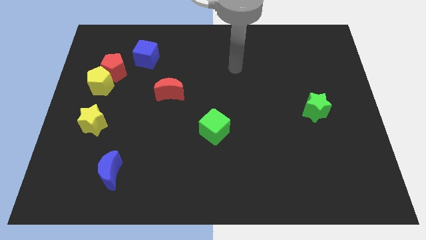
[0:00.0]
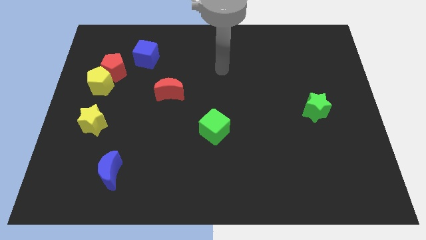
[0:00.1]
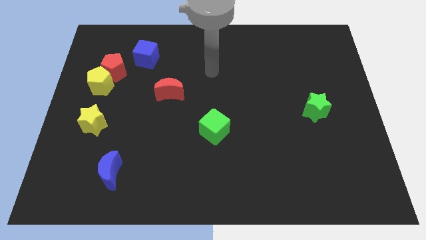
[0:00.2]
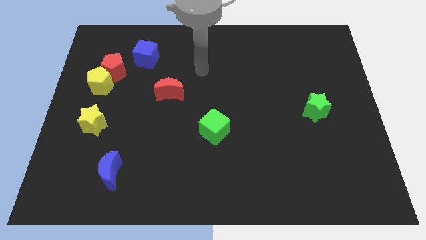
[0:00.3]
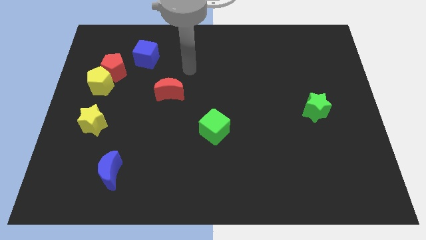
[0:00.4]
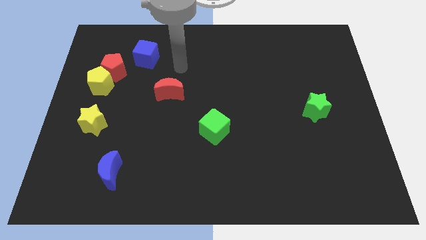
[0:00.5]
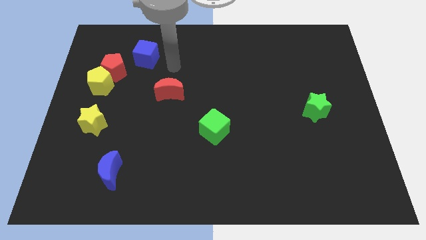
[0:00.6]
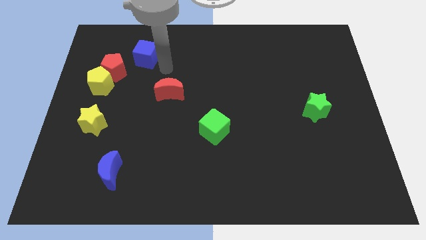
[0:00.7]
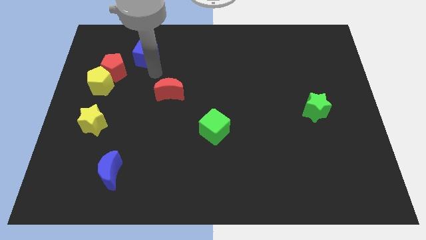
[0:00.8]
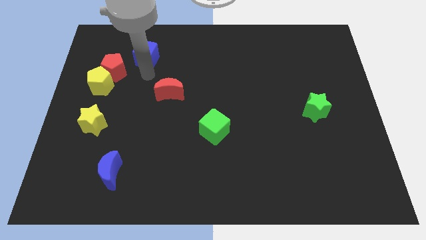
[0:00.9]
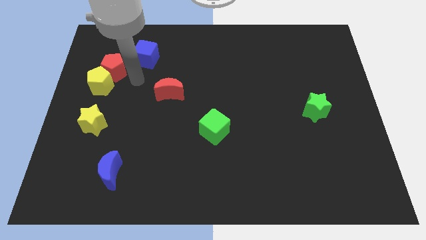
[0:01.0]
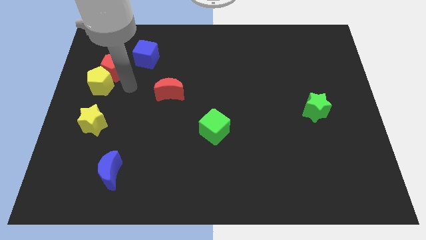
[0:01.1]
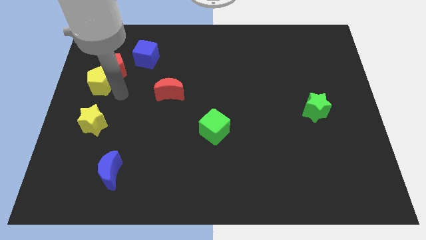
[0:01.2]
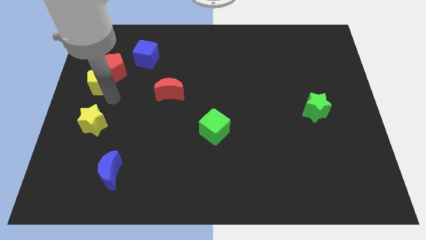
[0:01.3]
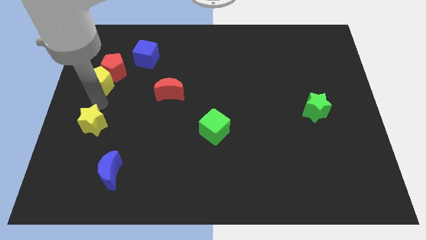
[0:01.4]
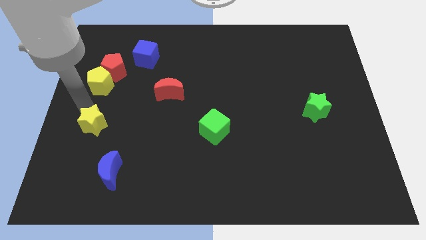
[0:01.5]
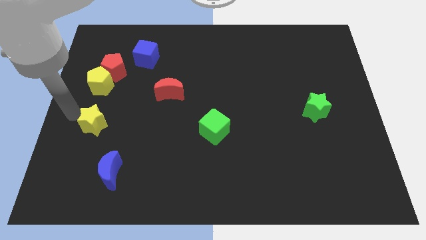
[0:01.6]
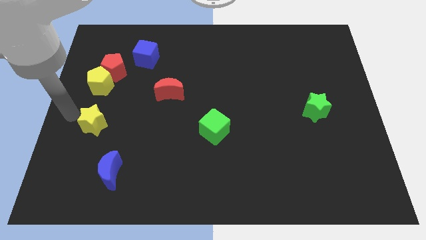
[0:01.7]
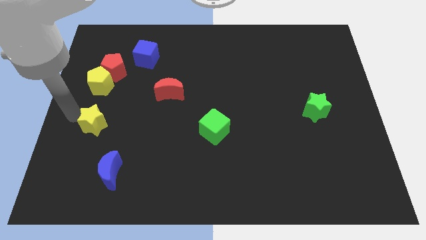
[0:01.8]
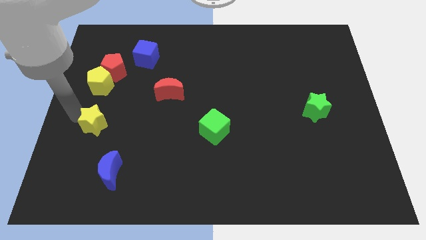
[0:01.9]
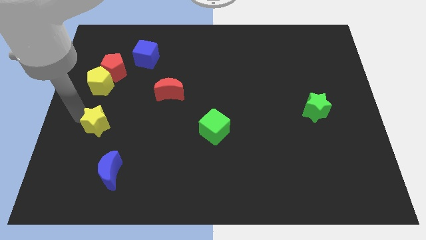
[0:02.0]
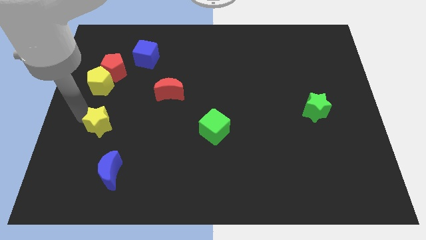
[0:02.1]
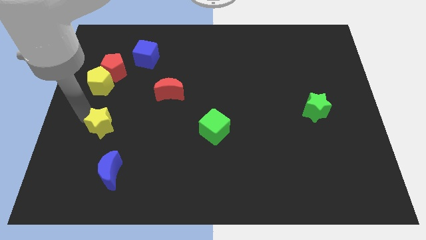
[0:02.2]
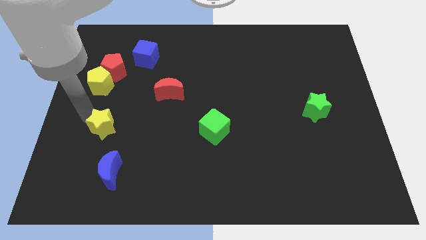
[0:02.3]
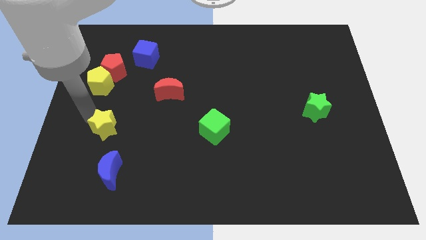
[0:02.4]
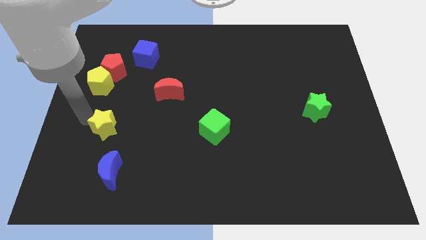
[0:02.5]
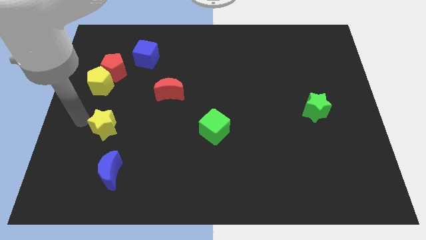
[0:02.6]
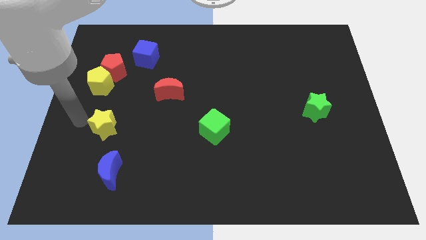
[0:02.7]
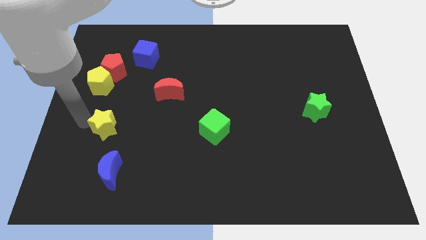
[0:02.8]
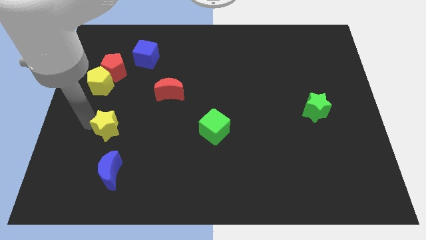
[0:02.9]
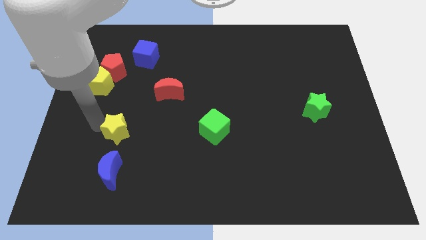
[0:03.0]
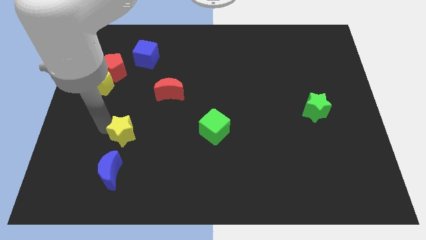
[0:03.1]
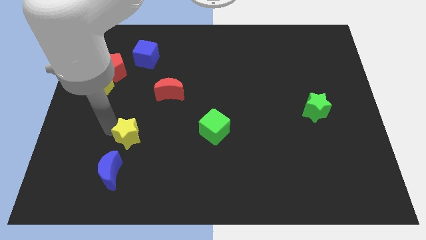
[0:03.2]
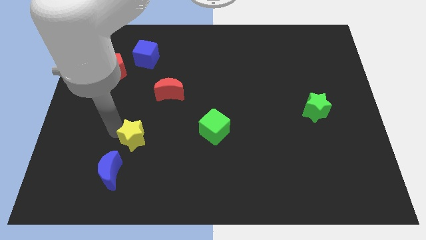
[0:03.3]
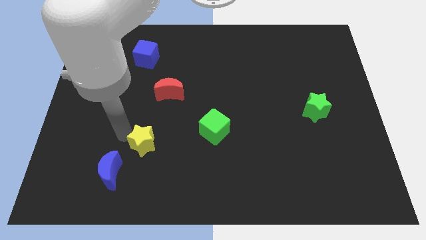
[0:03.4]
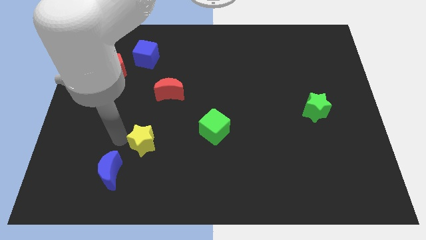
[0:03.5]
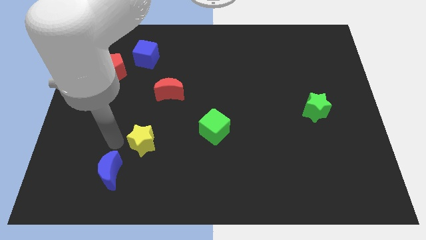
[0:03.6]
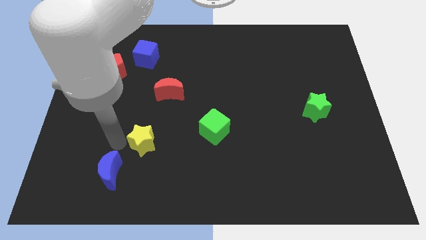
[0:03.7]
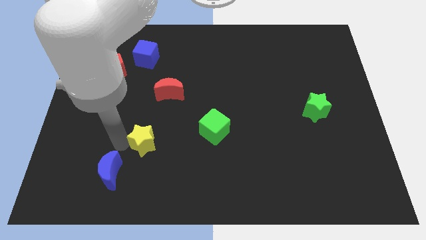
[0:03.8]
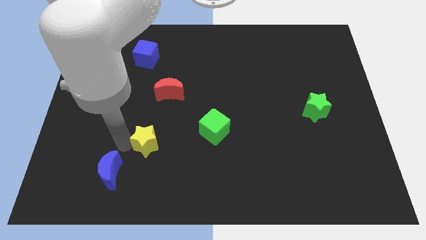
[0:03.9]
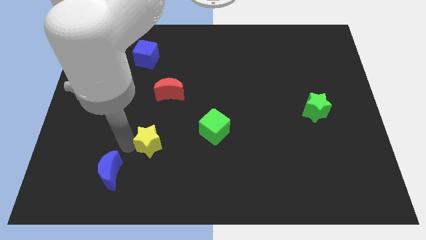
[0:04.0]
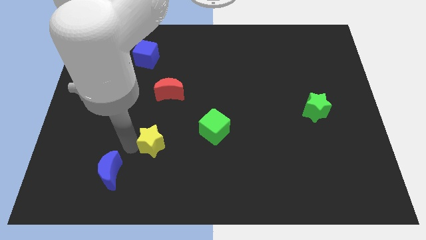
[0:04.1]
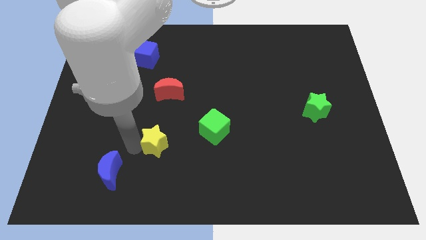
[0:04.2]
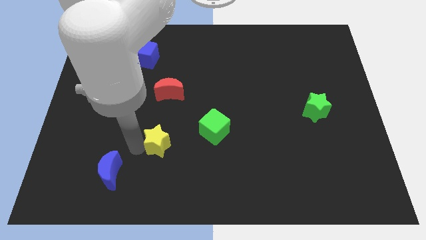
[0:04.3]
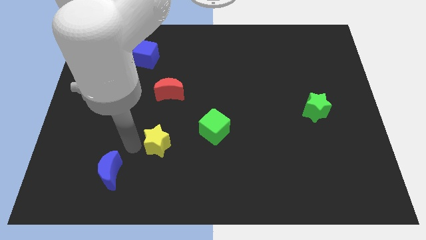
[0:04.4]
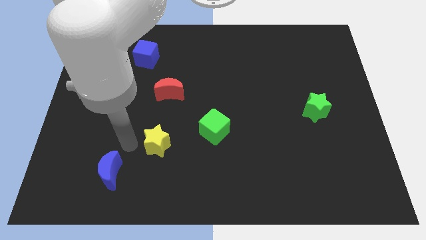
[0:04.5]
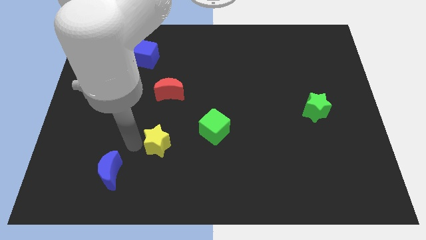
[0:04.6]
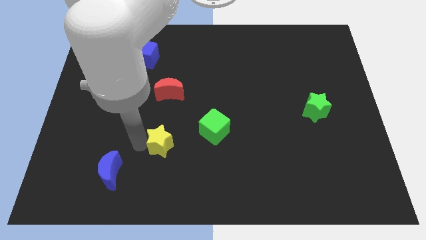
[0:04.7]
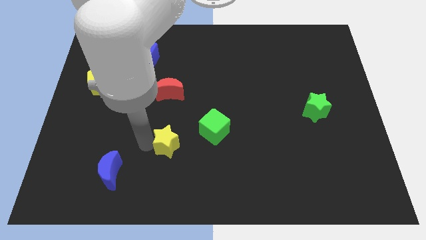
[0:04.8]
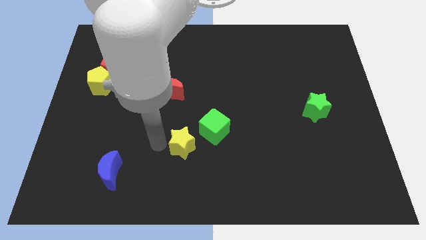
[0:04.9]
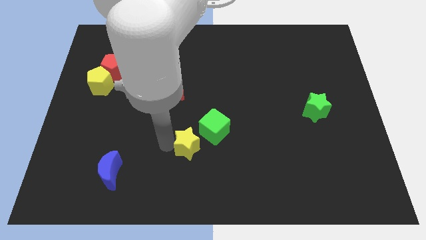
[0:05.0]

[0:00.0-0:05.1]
slide the yellow star right

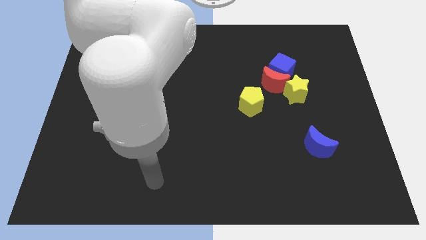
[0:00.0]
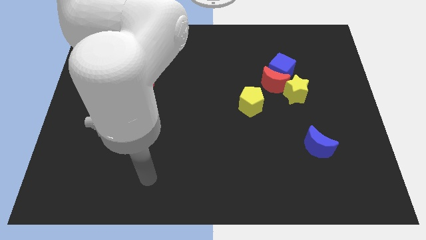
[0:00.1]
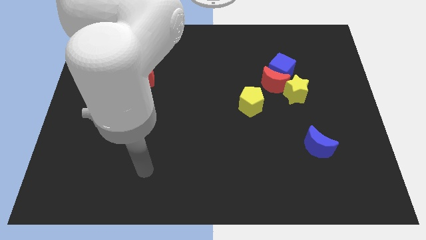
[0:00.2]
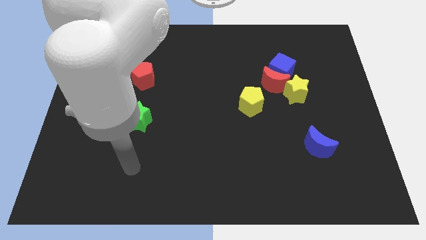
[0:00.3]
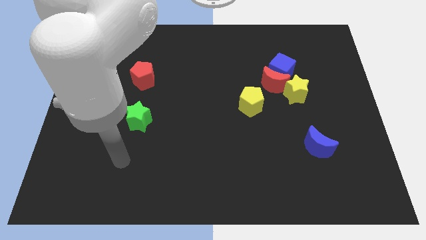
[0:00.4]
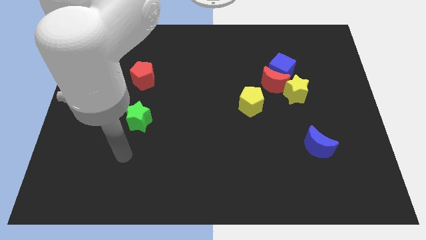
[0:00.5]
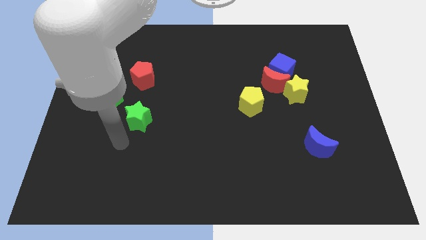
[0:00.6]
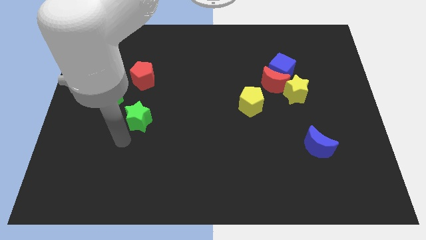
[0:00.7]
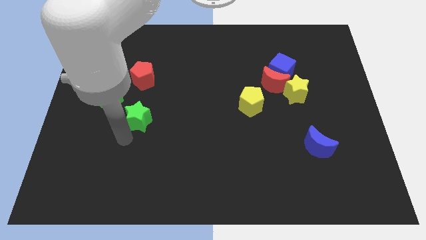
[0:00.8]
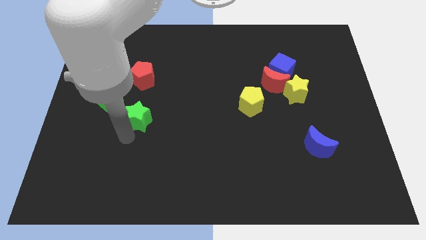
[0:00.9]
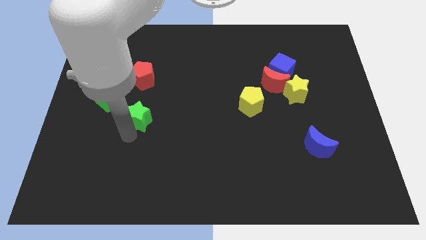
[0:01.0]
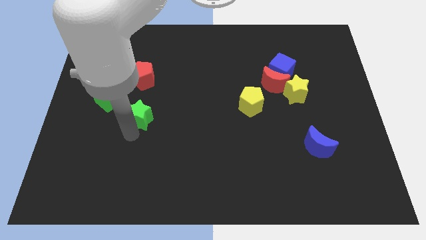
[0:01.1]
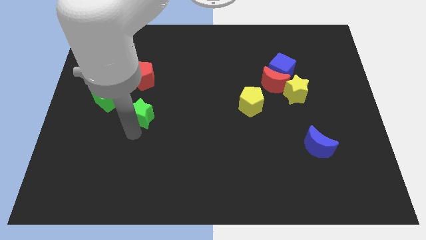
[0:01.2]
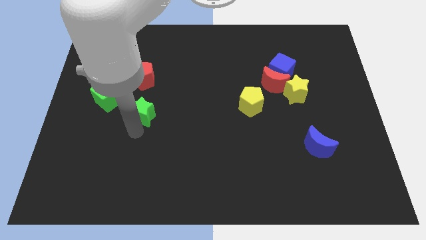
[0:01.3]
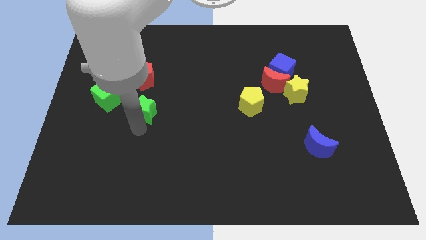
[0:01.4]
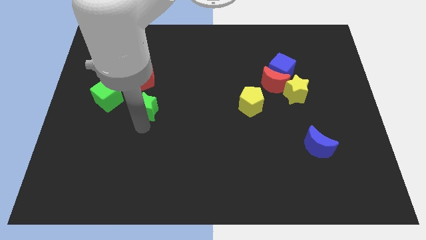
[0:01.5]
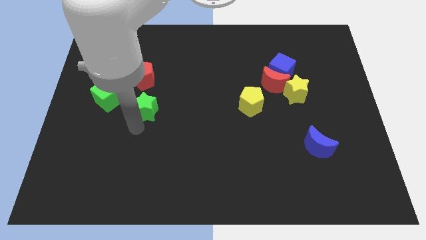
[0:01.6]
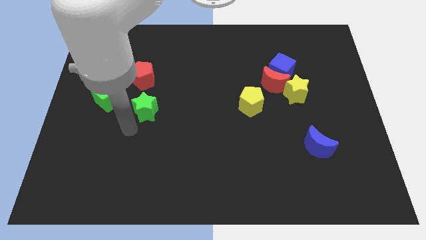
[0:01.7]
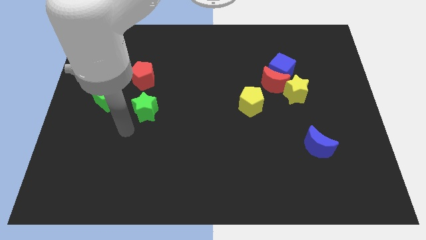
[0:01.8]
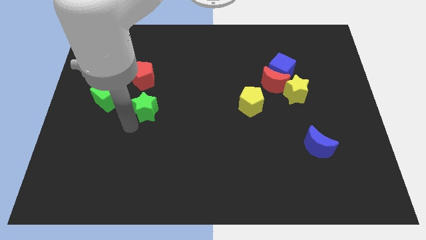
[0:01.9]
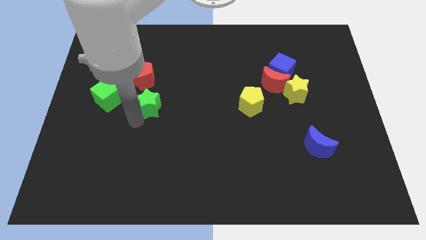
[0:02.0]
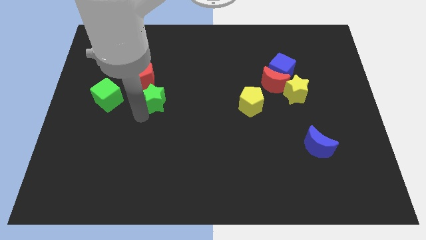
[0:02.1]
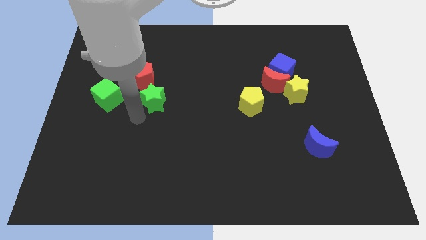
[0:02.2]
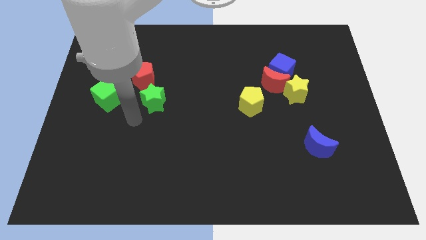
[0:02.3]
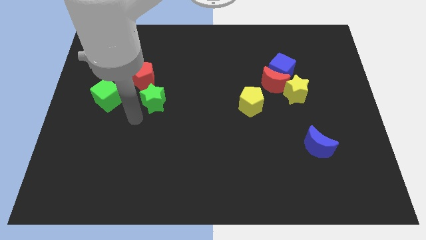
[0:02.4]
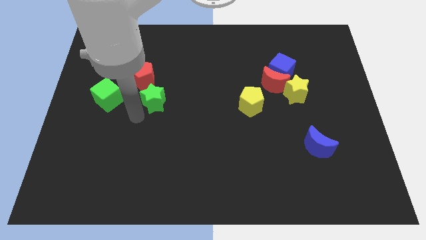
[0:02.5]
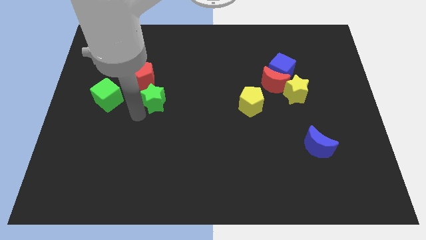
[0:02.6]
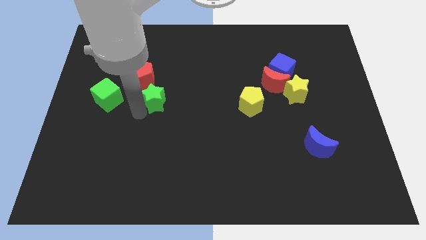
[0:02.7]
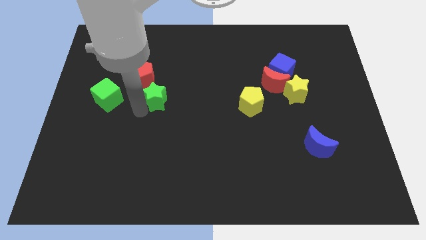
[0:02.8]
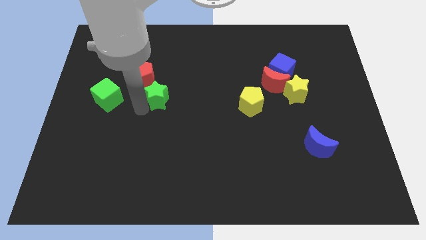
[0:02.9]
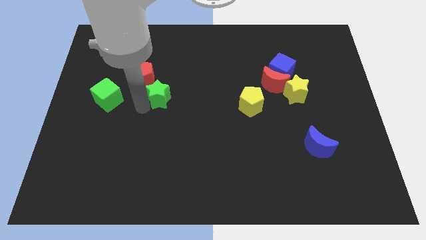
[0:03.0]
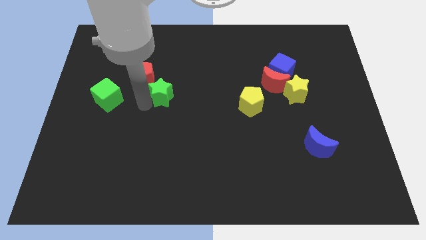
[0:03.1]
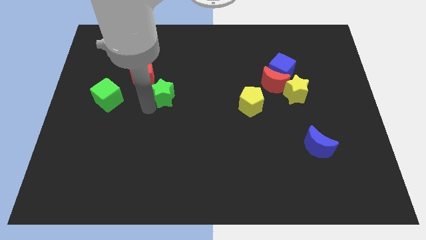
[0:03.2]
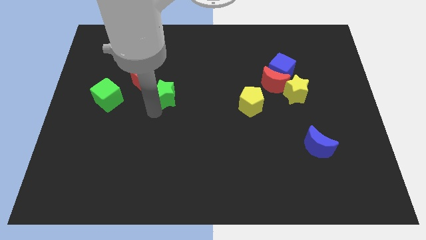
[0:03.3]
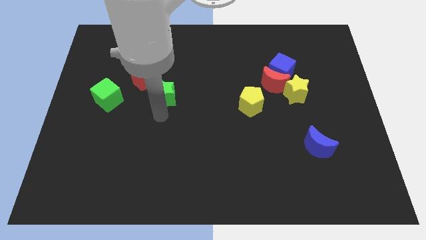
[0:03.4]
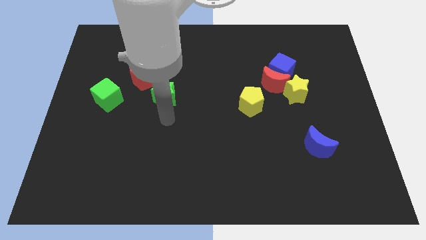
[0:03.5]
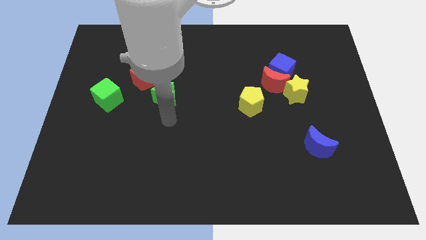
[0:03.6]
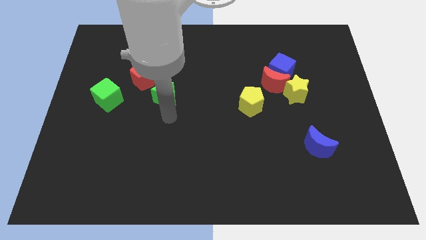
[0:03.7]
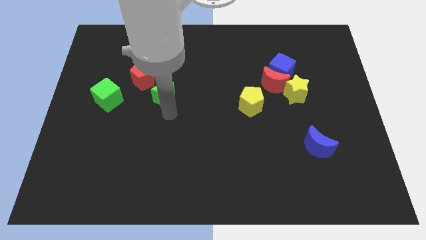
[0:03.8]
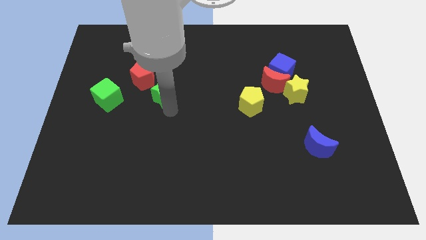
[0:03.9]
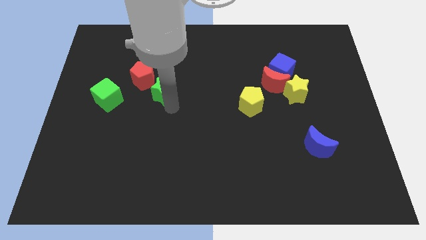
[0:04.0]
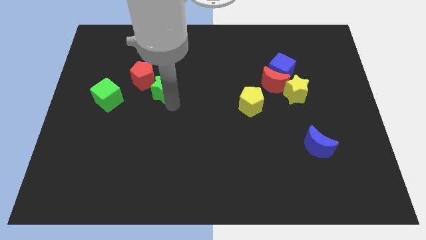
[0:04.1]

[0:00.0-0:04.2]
push the green star somewhat up
